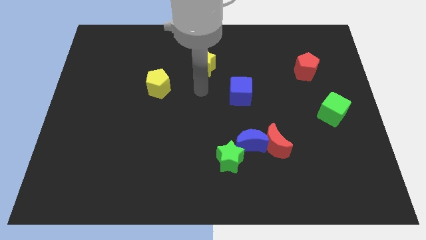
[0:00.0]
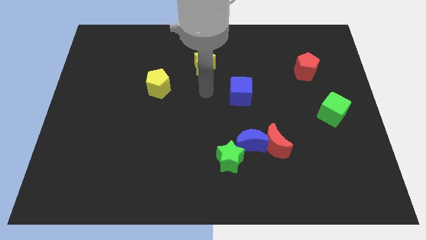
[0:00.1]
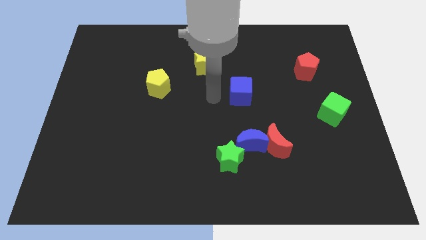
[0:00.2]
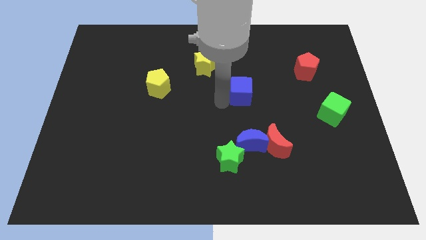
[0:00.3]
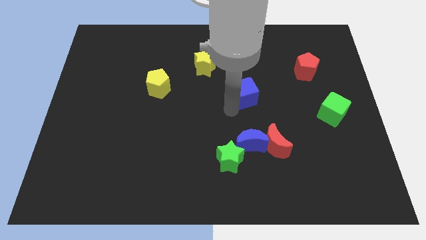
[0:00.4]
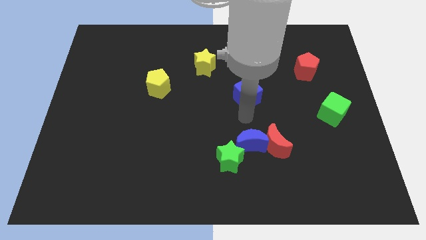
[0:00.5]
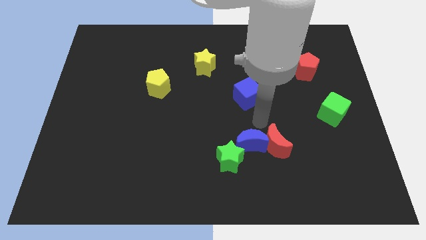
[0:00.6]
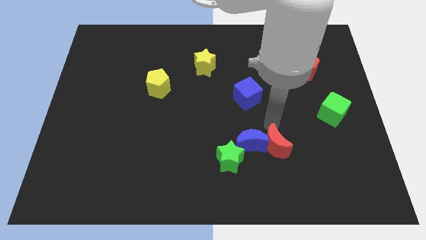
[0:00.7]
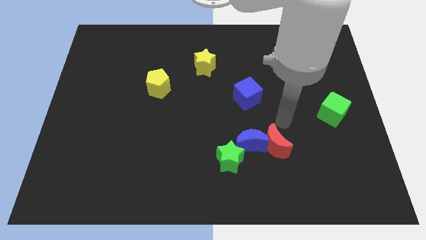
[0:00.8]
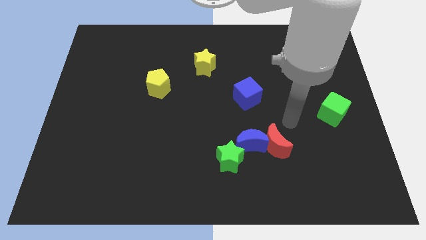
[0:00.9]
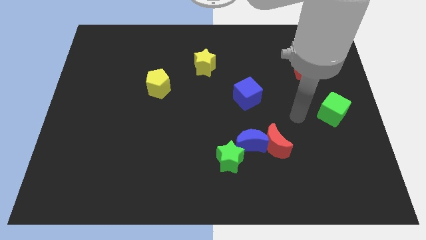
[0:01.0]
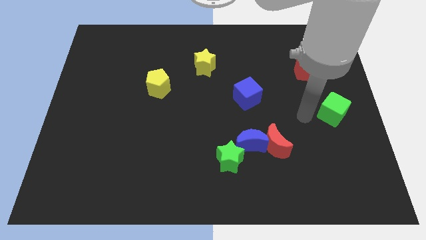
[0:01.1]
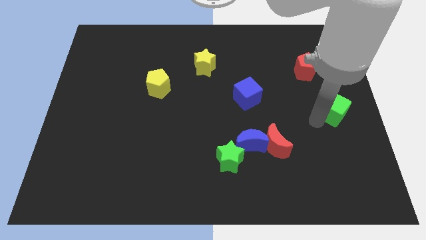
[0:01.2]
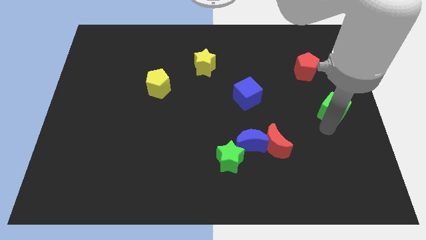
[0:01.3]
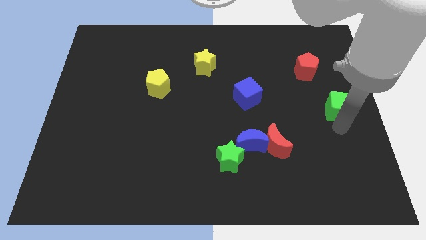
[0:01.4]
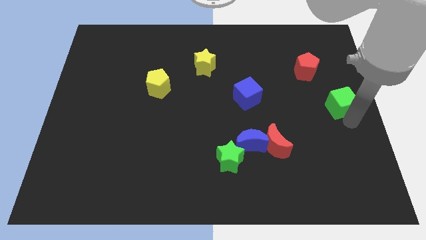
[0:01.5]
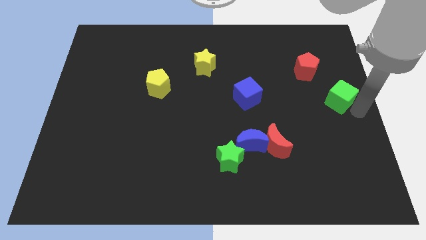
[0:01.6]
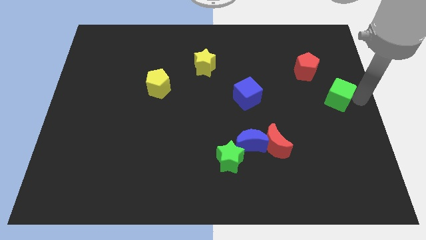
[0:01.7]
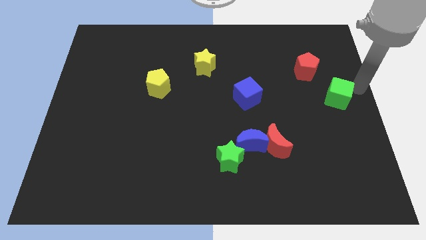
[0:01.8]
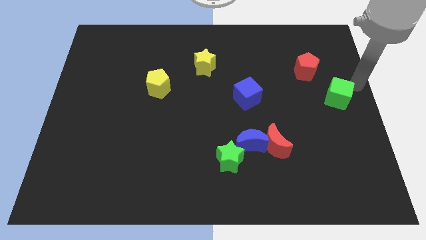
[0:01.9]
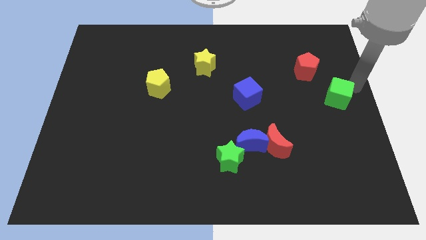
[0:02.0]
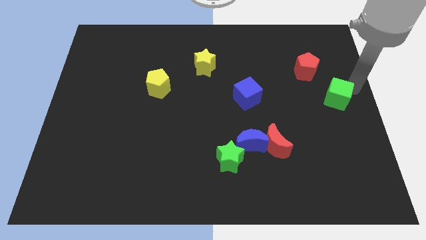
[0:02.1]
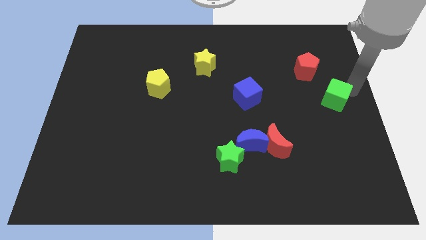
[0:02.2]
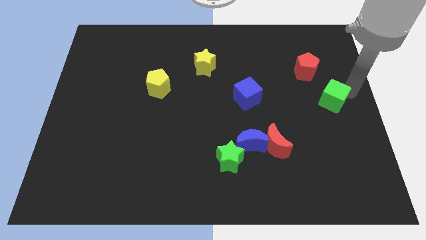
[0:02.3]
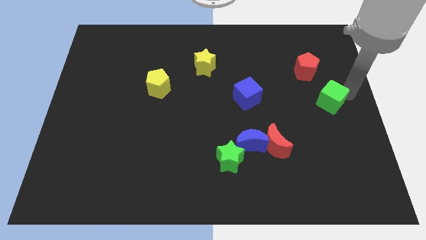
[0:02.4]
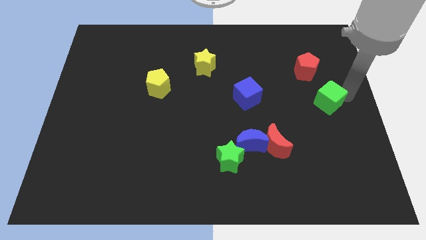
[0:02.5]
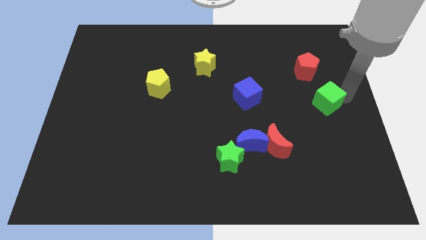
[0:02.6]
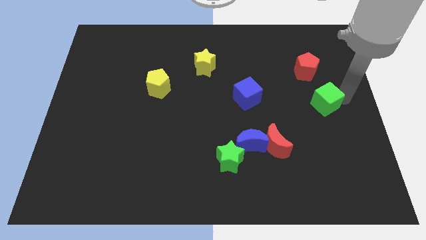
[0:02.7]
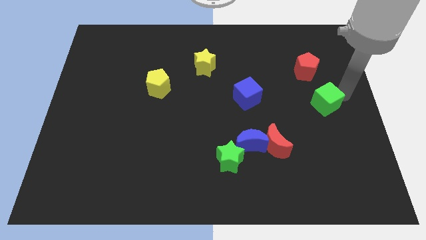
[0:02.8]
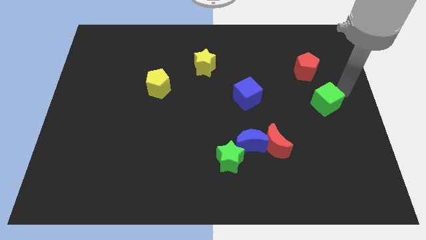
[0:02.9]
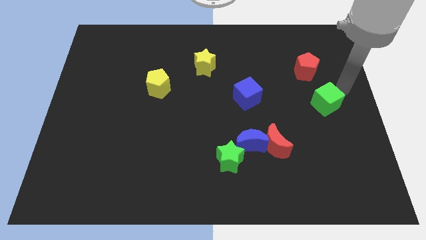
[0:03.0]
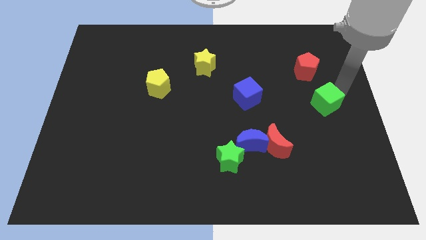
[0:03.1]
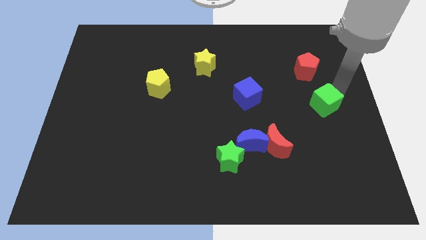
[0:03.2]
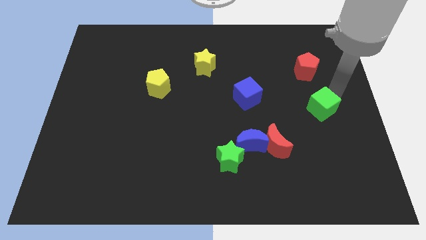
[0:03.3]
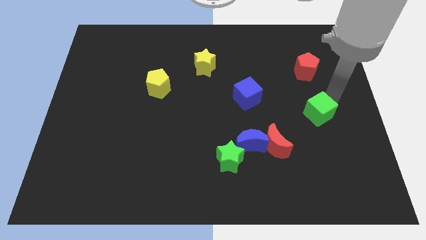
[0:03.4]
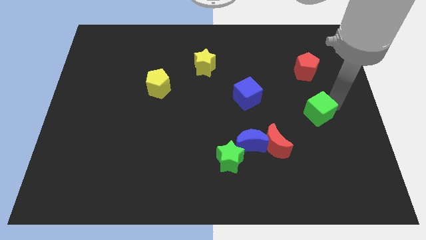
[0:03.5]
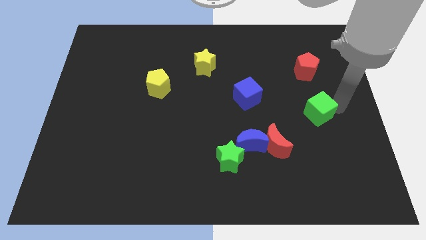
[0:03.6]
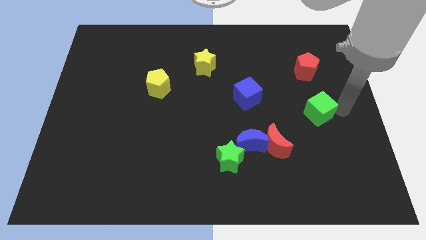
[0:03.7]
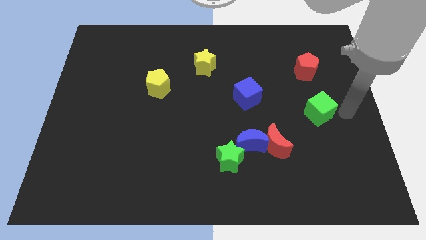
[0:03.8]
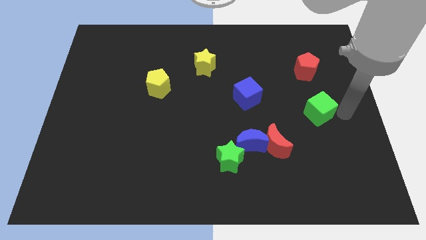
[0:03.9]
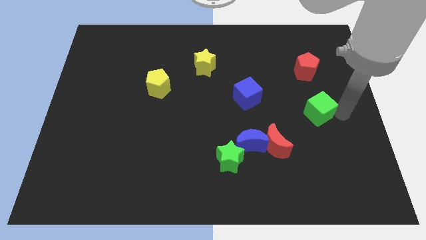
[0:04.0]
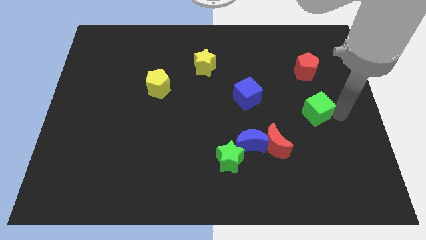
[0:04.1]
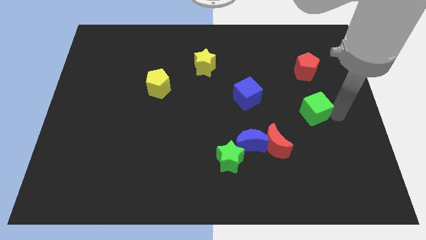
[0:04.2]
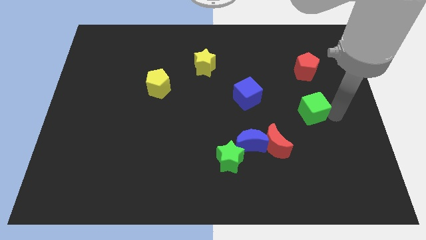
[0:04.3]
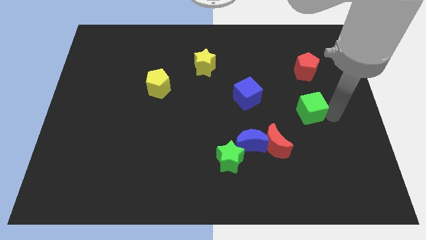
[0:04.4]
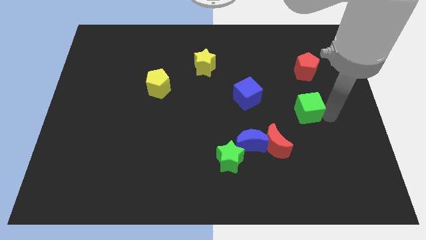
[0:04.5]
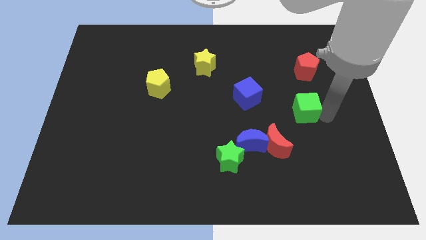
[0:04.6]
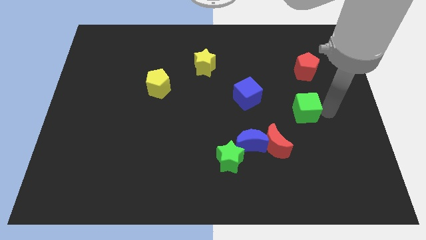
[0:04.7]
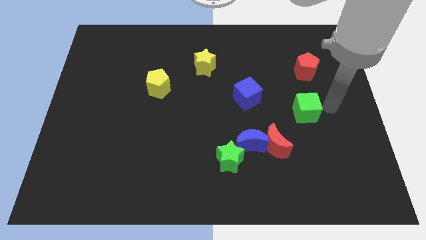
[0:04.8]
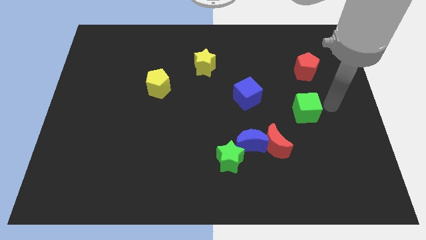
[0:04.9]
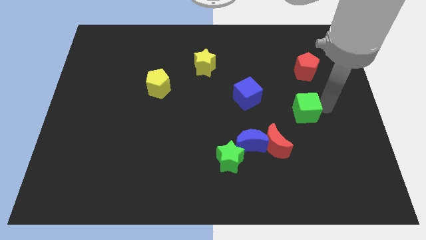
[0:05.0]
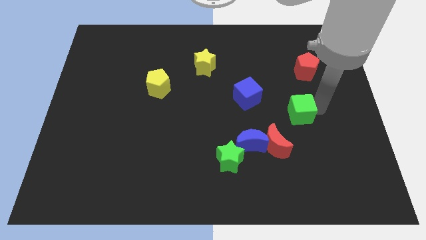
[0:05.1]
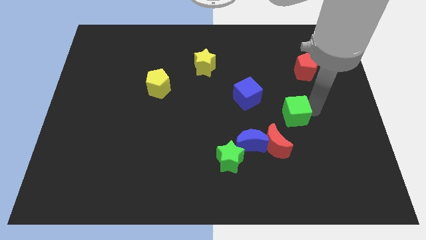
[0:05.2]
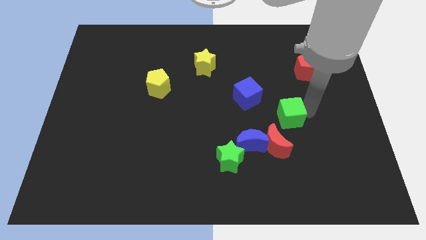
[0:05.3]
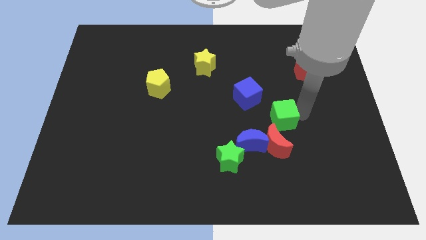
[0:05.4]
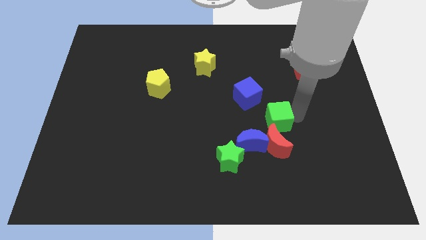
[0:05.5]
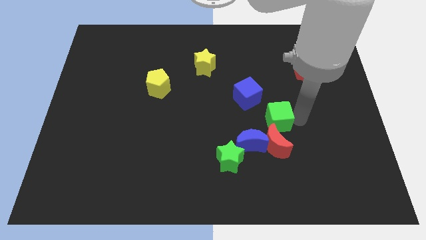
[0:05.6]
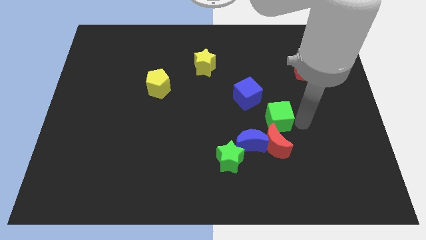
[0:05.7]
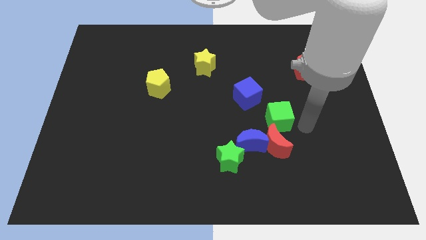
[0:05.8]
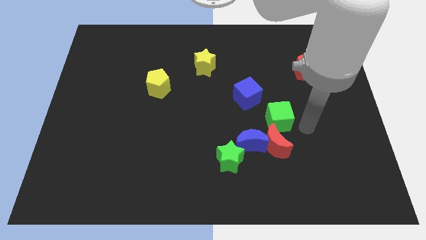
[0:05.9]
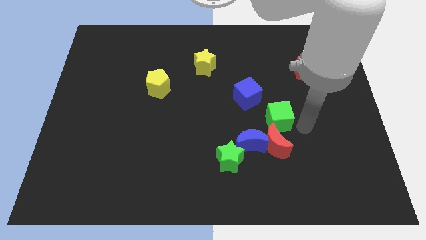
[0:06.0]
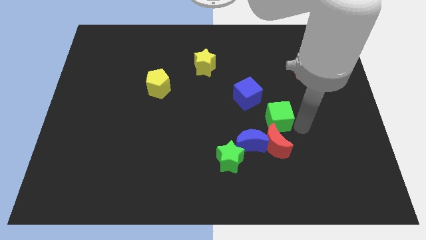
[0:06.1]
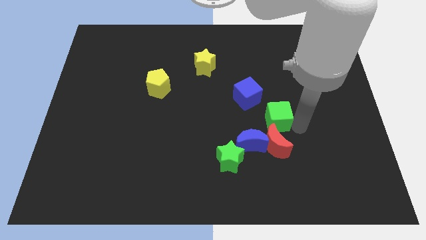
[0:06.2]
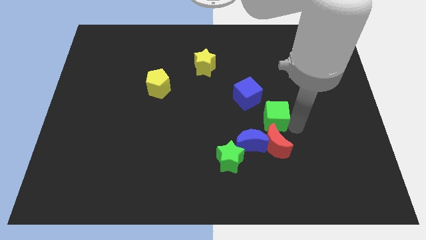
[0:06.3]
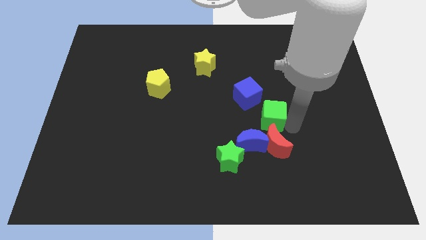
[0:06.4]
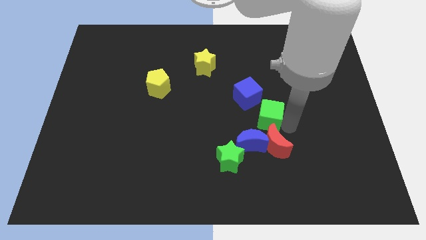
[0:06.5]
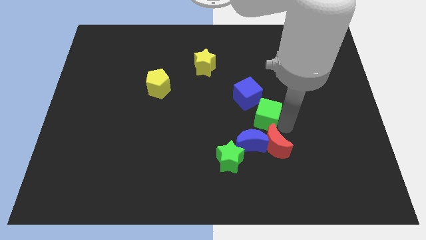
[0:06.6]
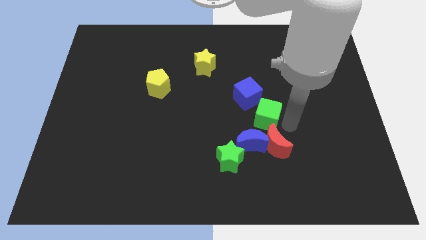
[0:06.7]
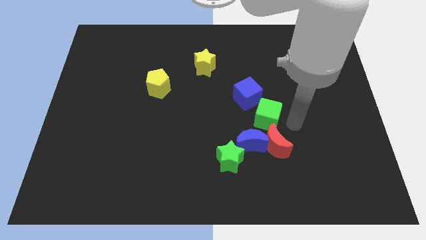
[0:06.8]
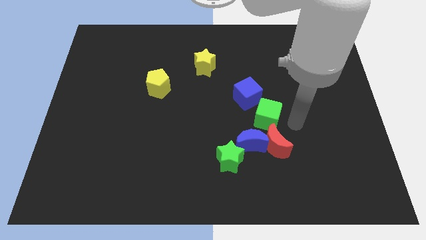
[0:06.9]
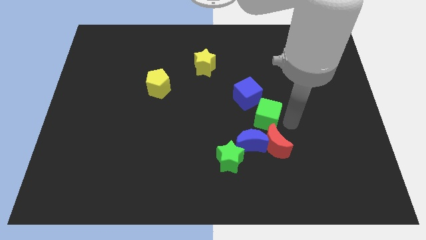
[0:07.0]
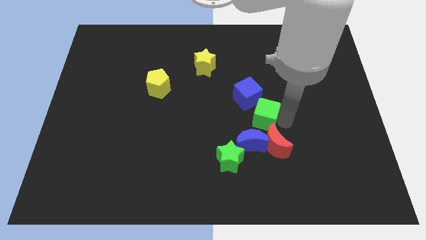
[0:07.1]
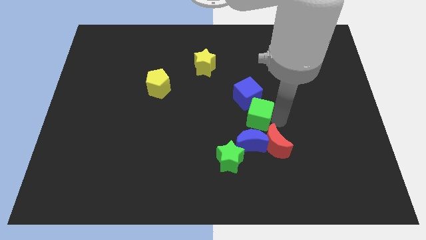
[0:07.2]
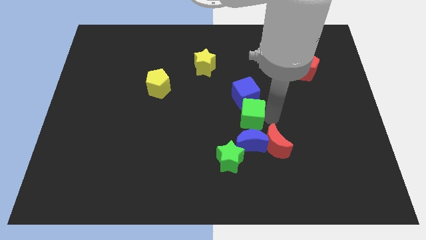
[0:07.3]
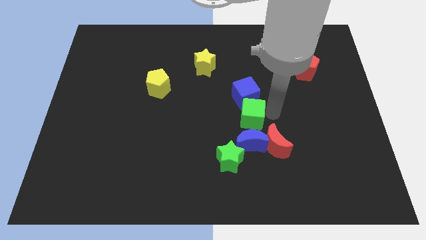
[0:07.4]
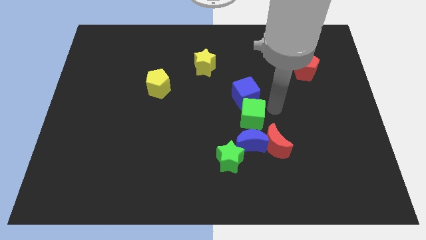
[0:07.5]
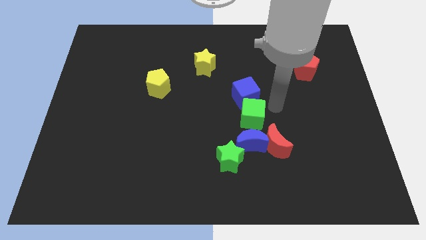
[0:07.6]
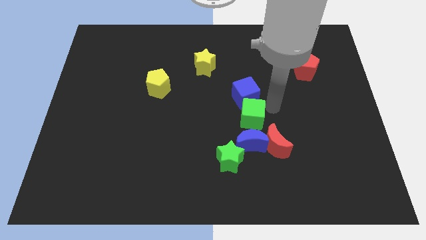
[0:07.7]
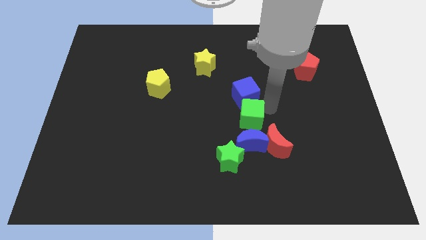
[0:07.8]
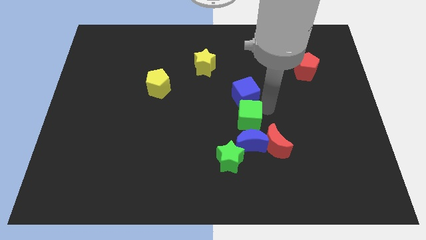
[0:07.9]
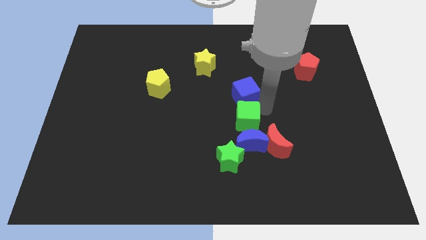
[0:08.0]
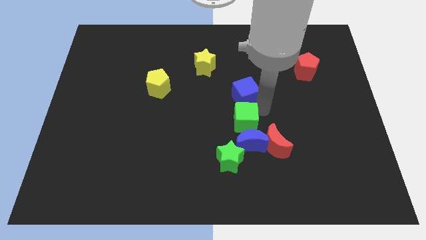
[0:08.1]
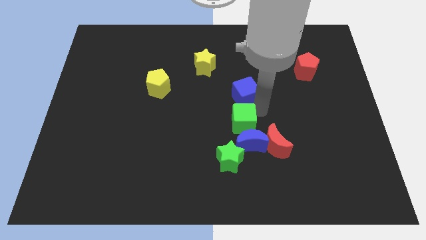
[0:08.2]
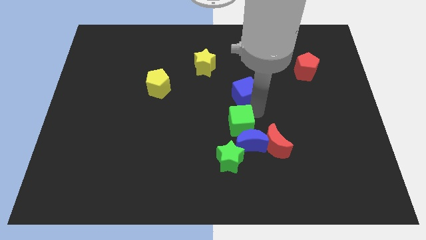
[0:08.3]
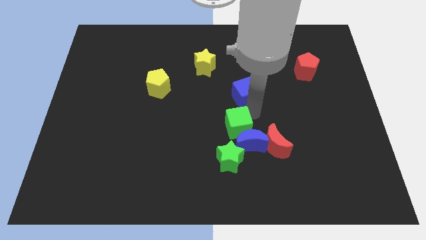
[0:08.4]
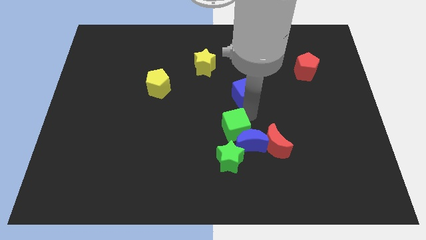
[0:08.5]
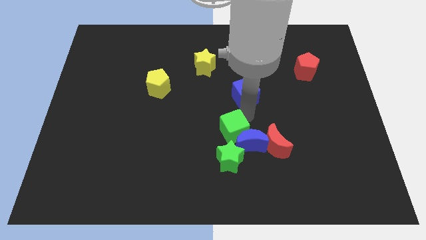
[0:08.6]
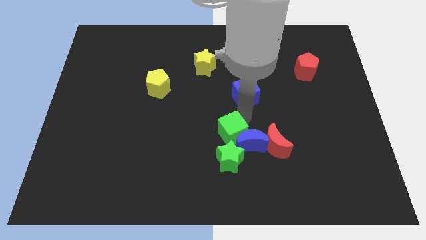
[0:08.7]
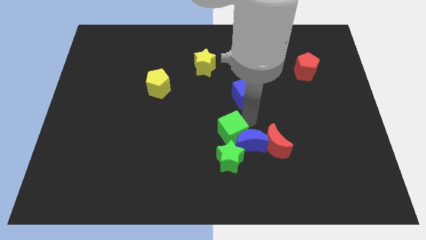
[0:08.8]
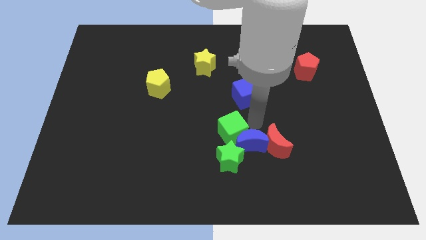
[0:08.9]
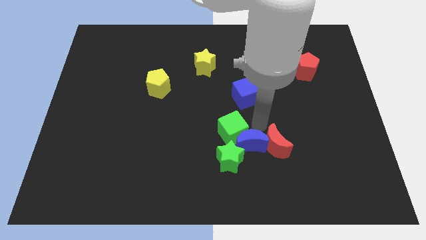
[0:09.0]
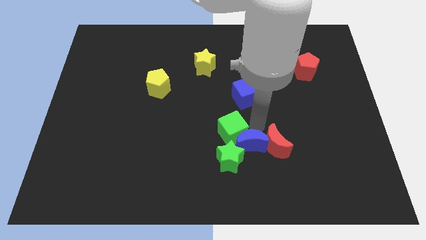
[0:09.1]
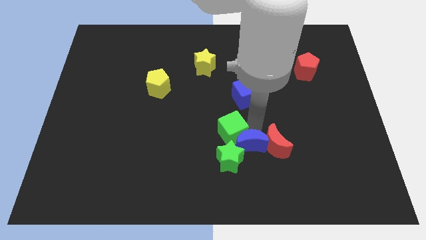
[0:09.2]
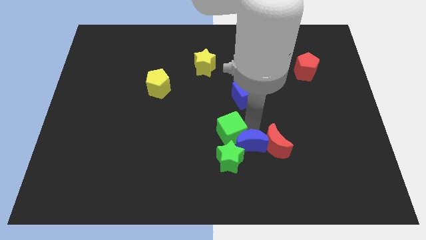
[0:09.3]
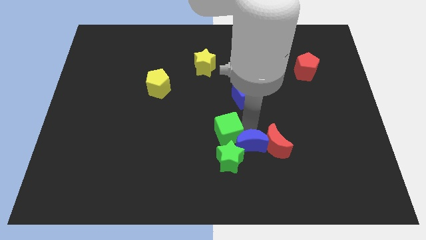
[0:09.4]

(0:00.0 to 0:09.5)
put the green cube diagonally up and to the left of the green star
